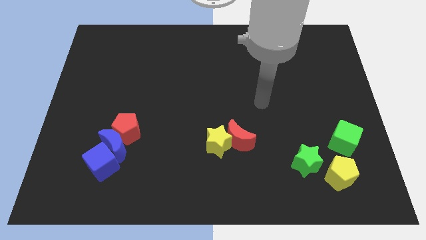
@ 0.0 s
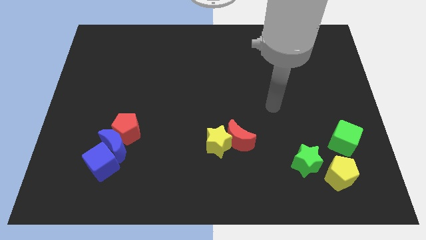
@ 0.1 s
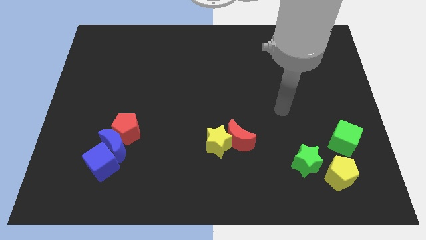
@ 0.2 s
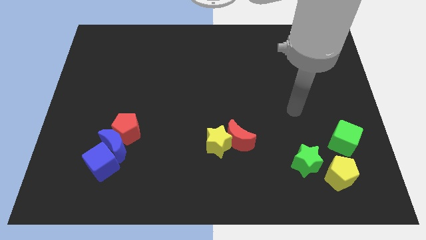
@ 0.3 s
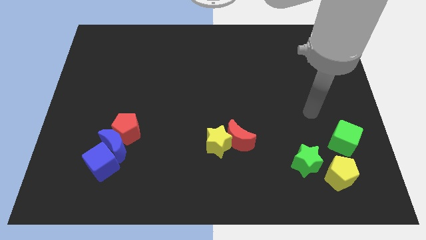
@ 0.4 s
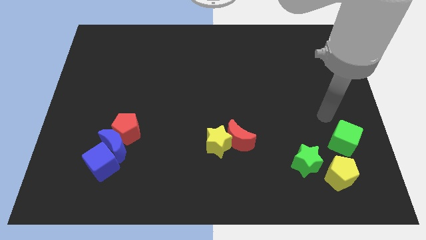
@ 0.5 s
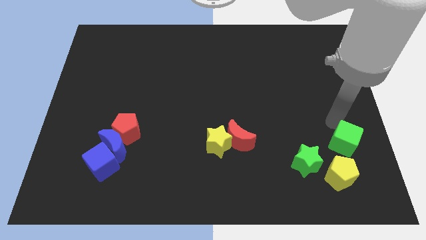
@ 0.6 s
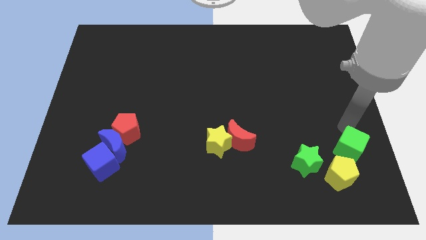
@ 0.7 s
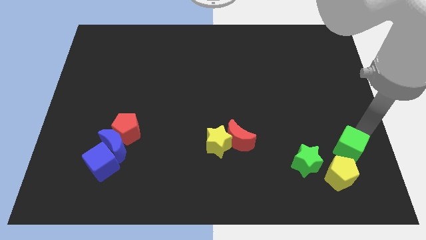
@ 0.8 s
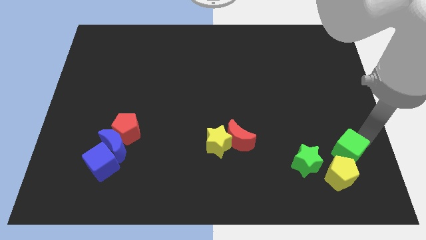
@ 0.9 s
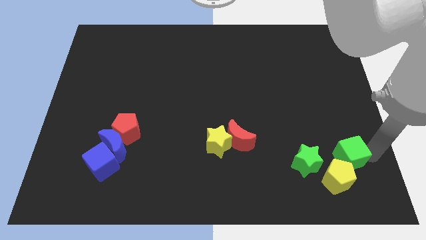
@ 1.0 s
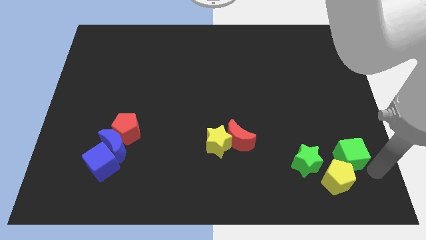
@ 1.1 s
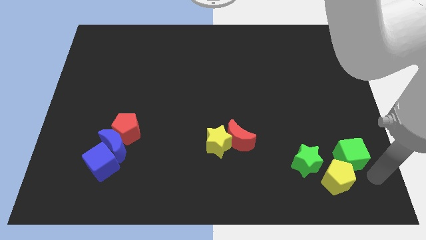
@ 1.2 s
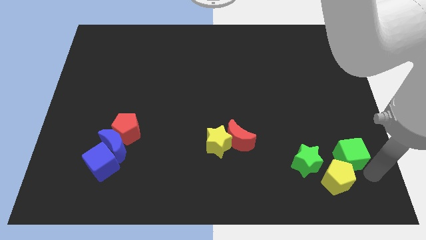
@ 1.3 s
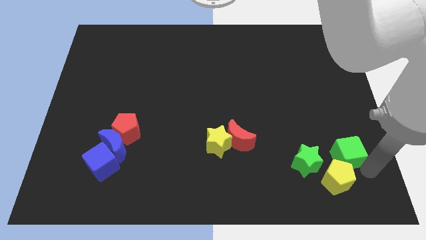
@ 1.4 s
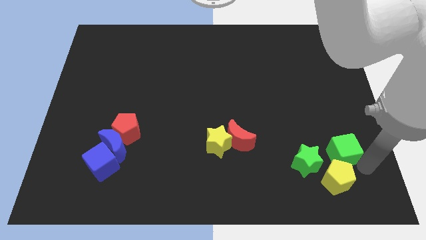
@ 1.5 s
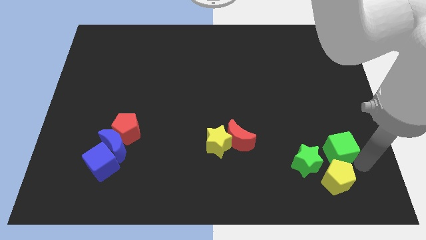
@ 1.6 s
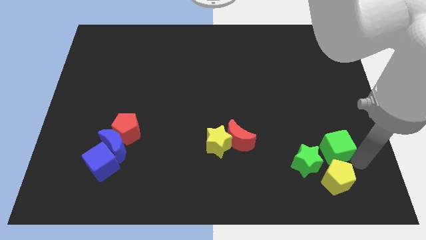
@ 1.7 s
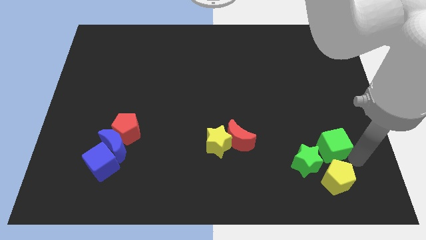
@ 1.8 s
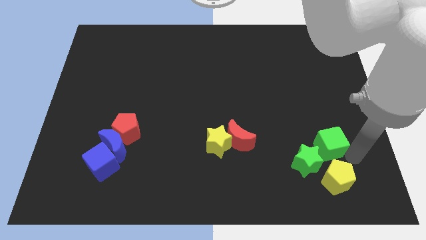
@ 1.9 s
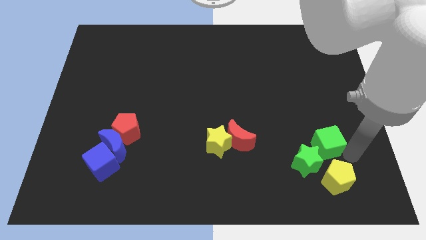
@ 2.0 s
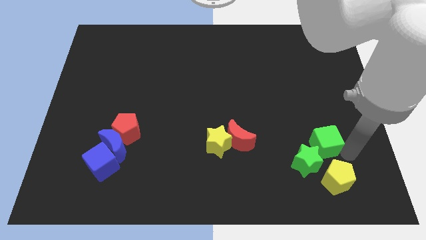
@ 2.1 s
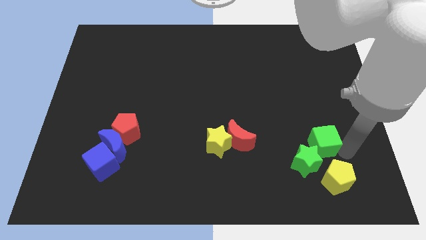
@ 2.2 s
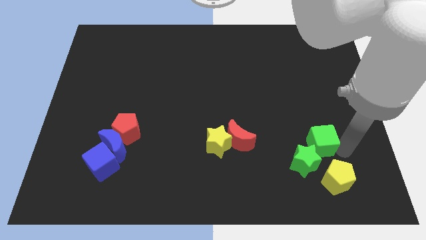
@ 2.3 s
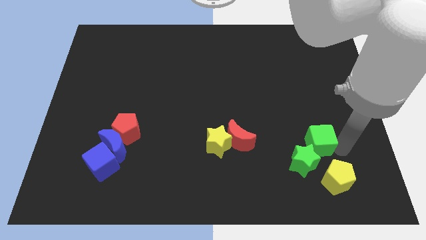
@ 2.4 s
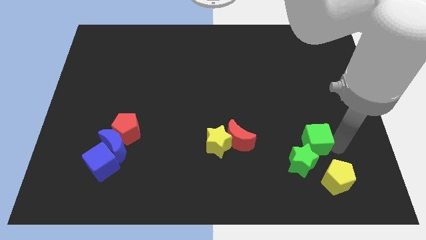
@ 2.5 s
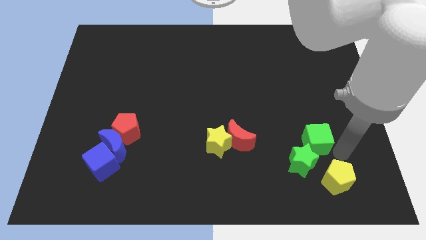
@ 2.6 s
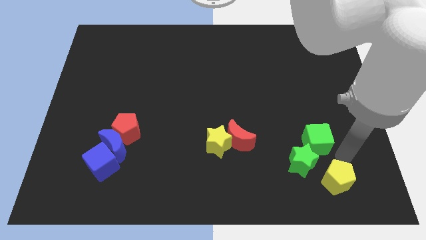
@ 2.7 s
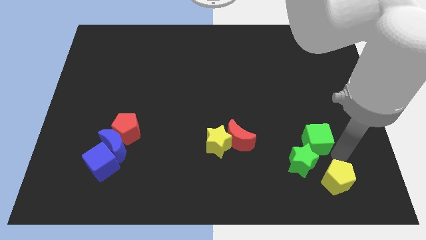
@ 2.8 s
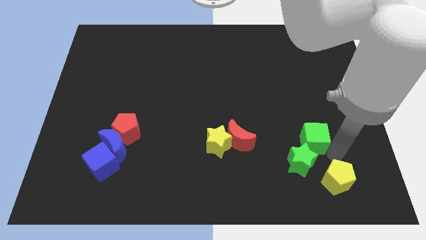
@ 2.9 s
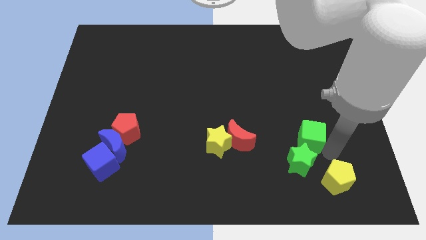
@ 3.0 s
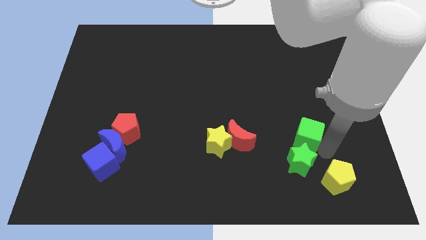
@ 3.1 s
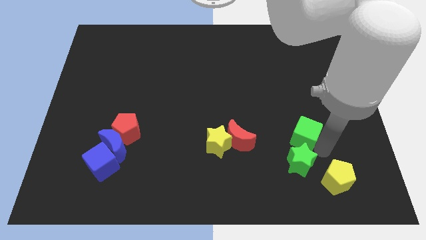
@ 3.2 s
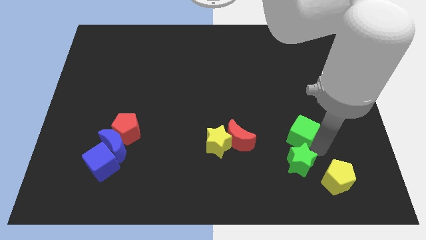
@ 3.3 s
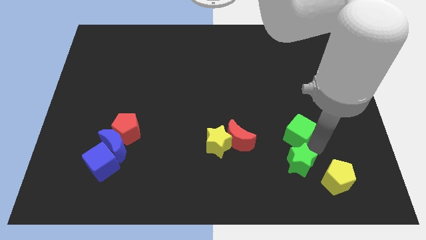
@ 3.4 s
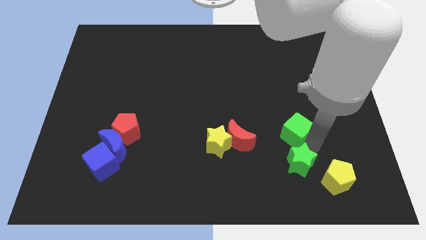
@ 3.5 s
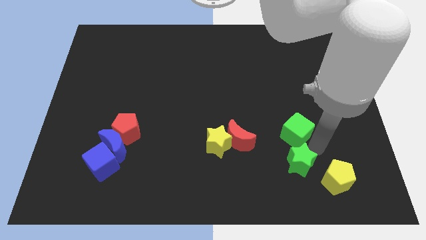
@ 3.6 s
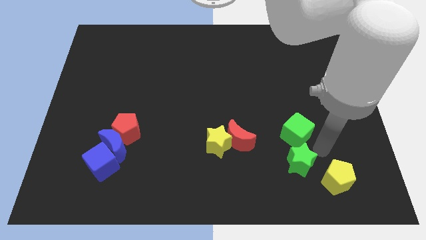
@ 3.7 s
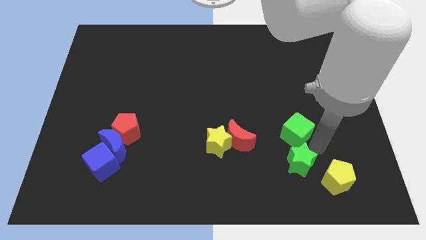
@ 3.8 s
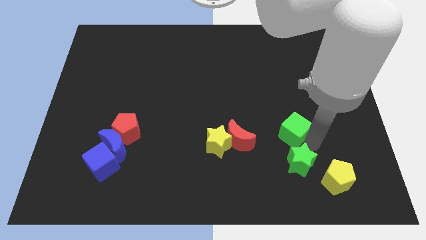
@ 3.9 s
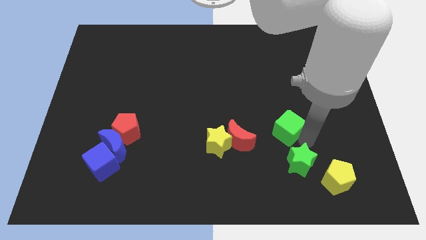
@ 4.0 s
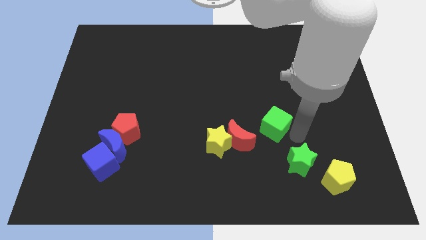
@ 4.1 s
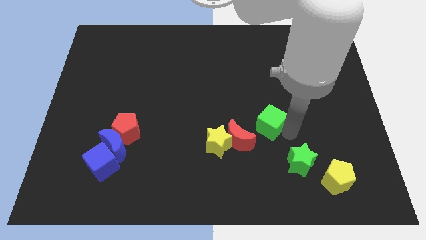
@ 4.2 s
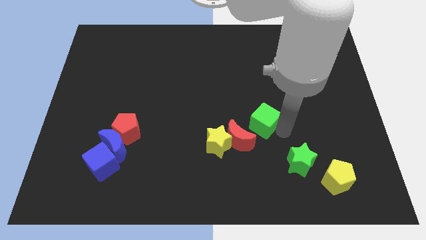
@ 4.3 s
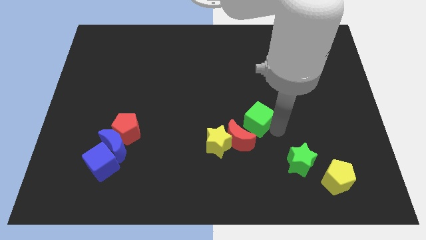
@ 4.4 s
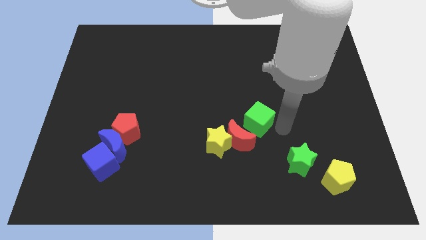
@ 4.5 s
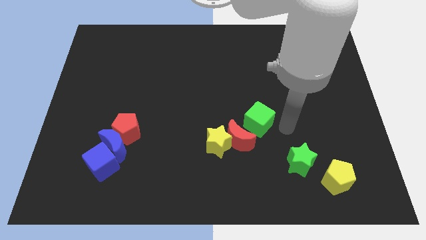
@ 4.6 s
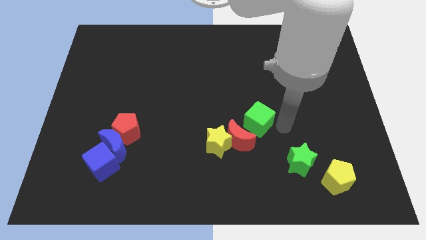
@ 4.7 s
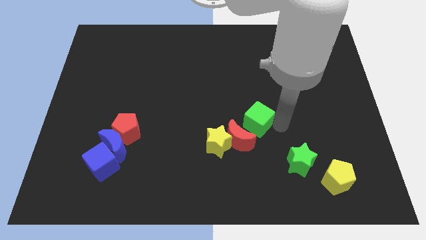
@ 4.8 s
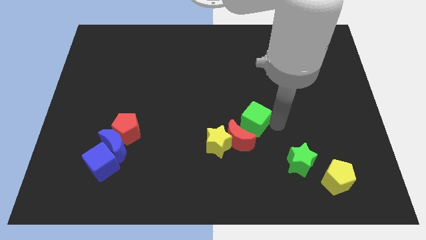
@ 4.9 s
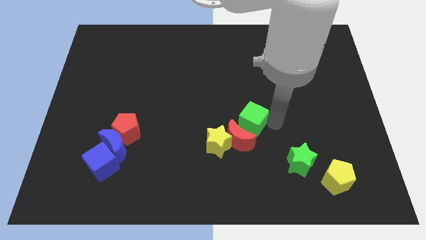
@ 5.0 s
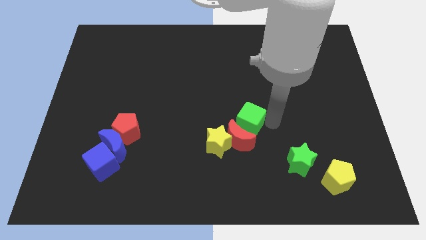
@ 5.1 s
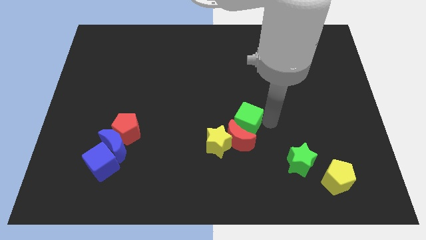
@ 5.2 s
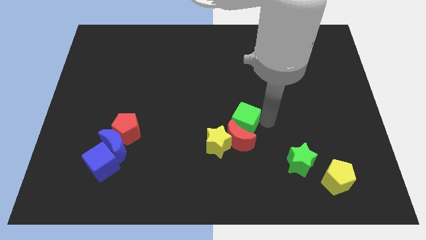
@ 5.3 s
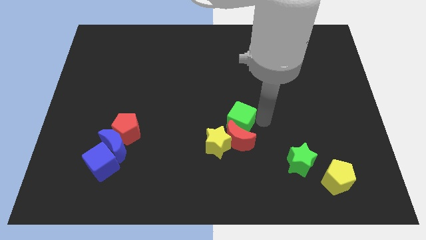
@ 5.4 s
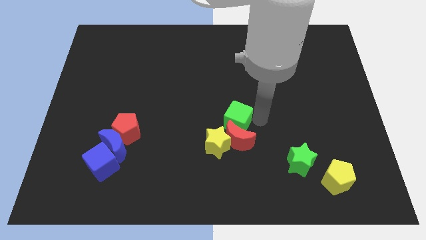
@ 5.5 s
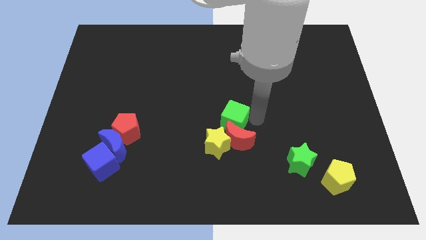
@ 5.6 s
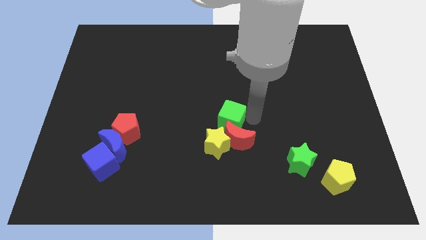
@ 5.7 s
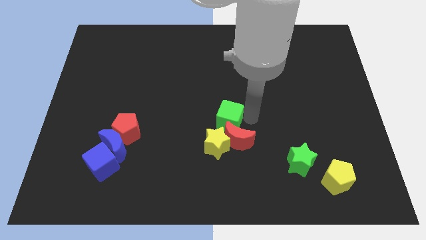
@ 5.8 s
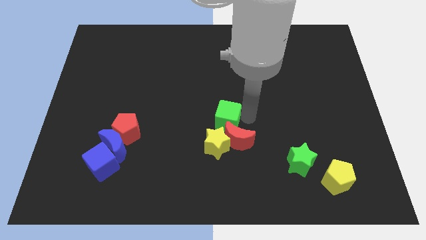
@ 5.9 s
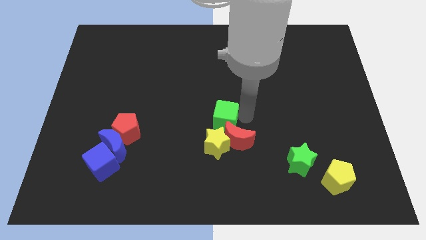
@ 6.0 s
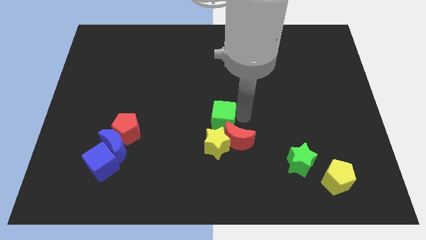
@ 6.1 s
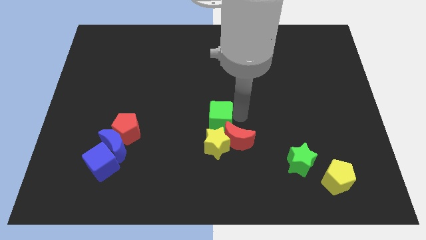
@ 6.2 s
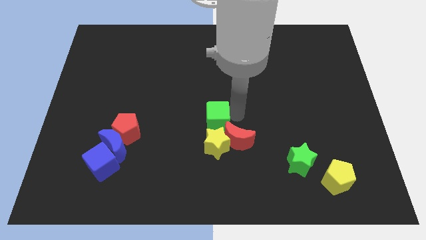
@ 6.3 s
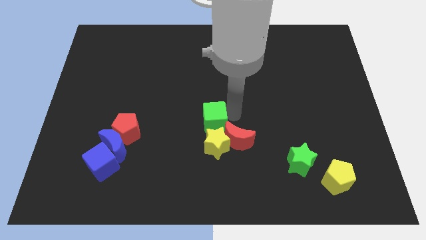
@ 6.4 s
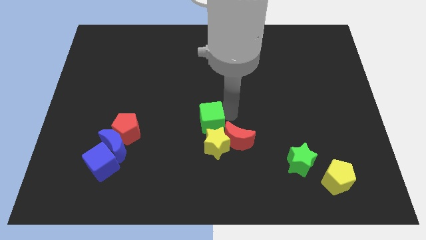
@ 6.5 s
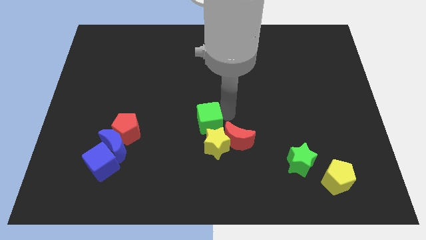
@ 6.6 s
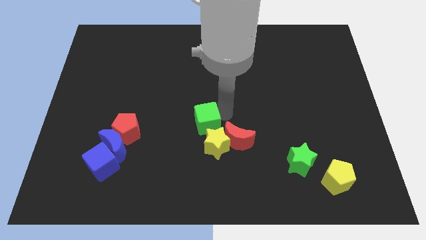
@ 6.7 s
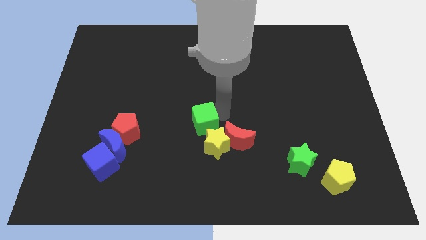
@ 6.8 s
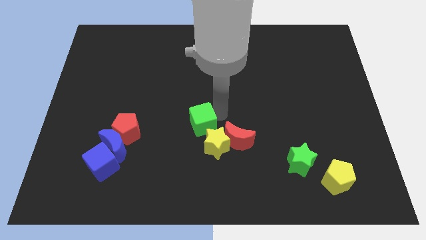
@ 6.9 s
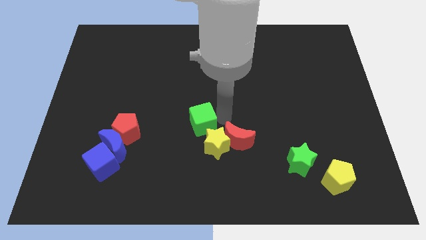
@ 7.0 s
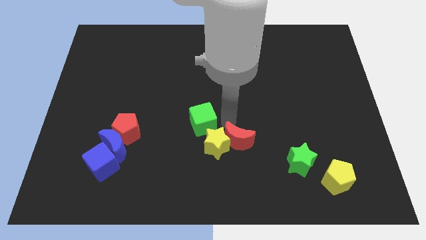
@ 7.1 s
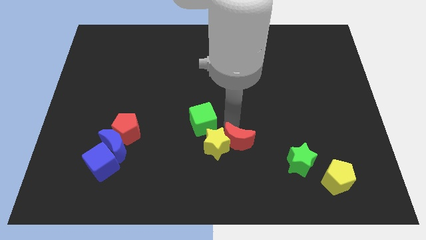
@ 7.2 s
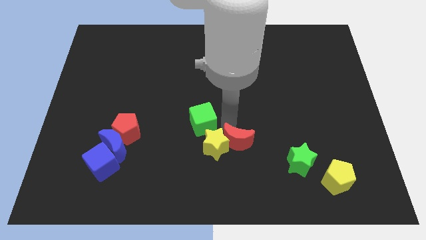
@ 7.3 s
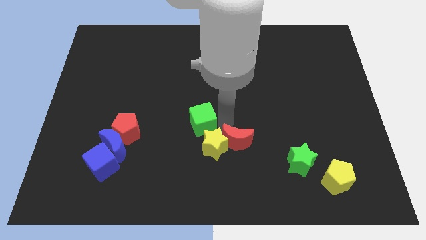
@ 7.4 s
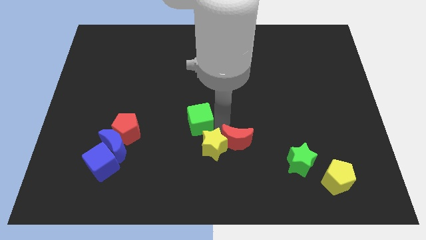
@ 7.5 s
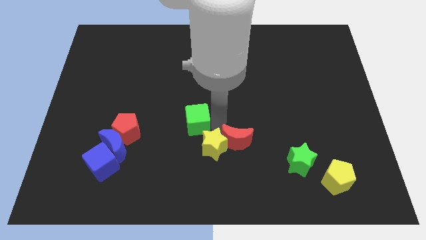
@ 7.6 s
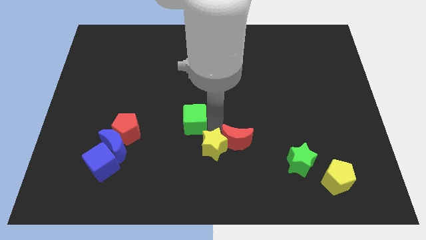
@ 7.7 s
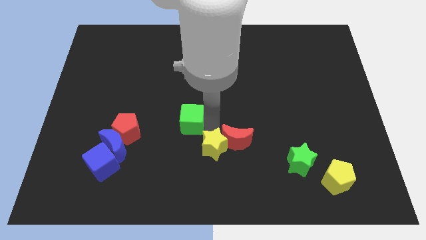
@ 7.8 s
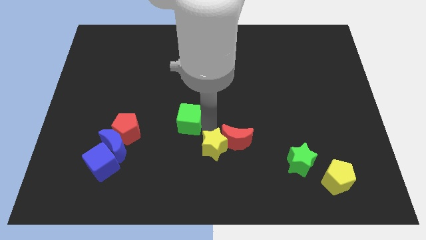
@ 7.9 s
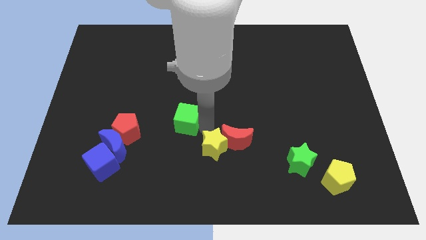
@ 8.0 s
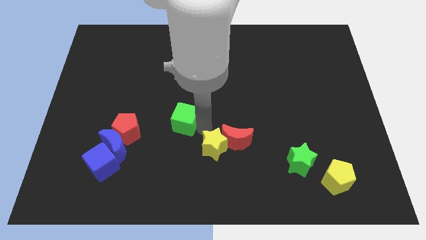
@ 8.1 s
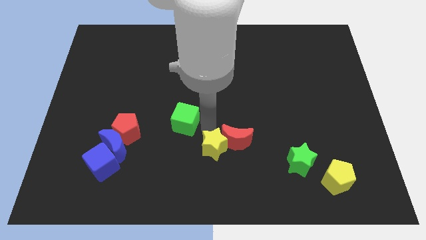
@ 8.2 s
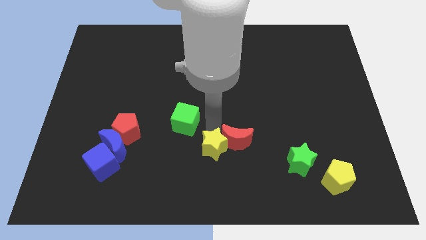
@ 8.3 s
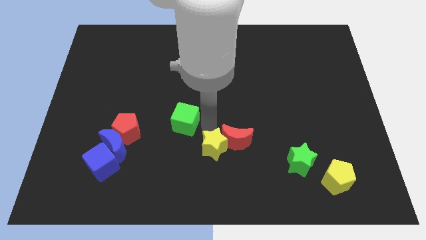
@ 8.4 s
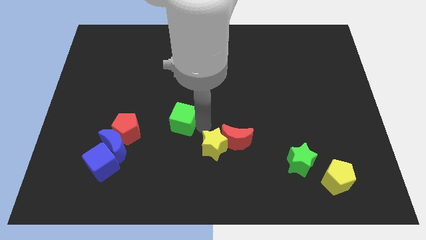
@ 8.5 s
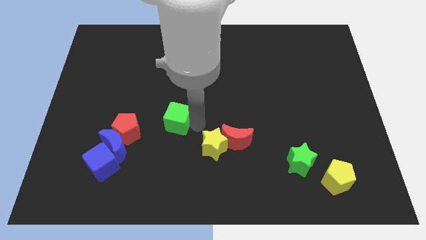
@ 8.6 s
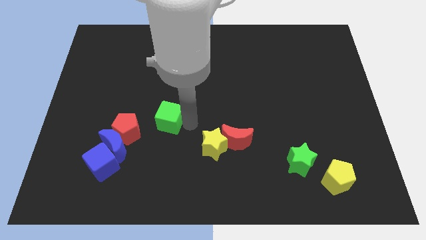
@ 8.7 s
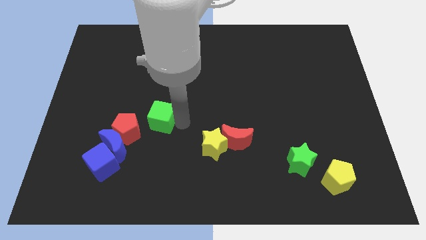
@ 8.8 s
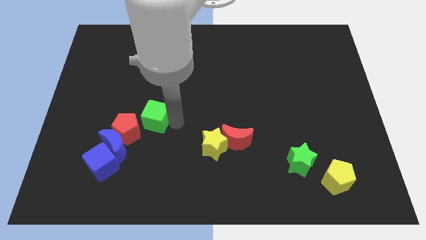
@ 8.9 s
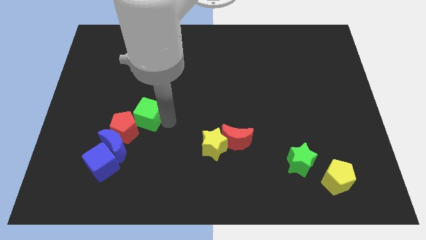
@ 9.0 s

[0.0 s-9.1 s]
slide the green cube towards the red pentagon
